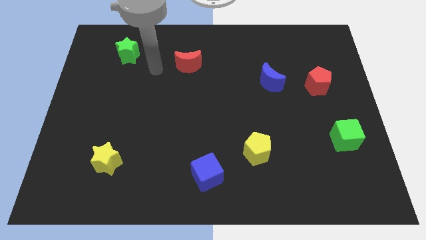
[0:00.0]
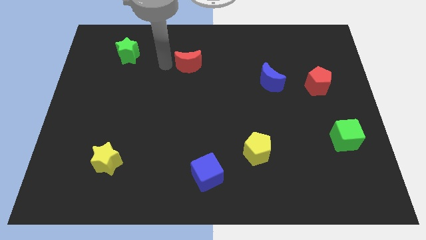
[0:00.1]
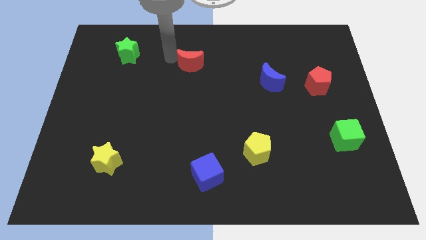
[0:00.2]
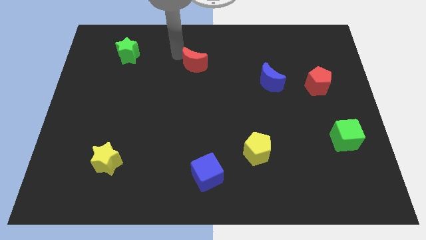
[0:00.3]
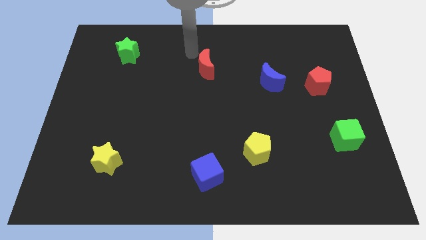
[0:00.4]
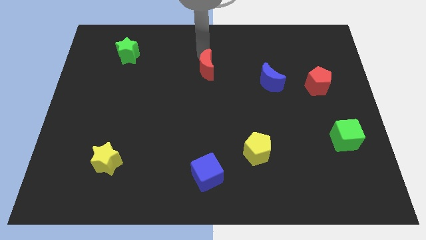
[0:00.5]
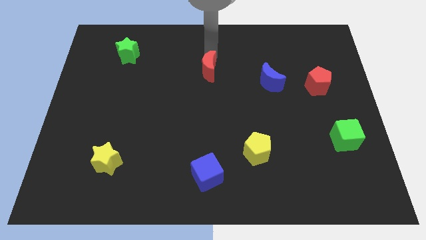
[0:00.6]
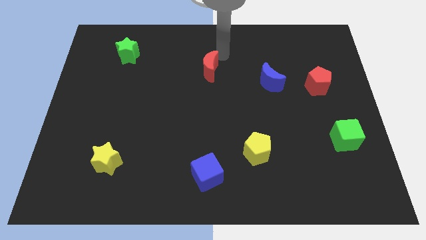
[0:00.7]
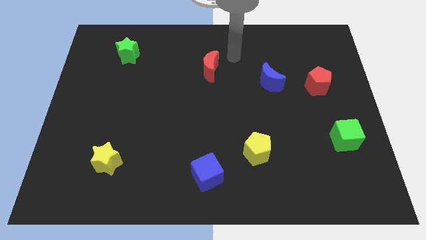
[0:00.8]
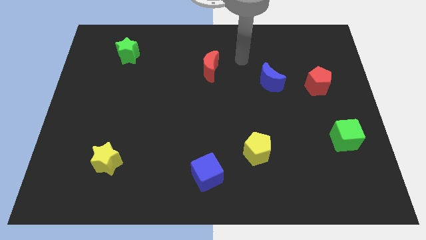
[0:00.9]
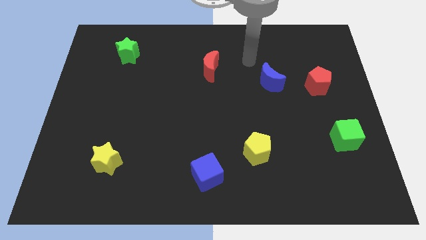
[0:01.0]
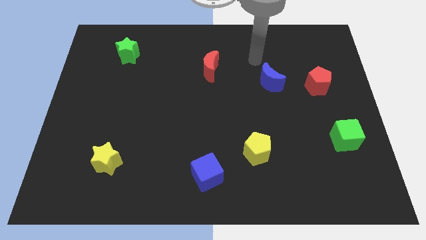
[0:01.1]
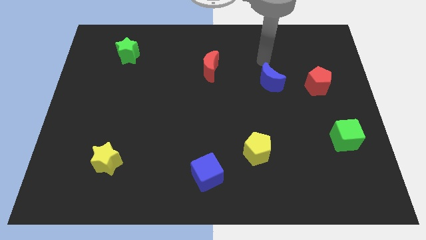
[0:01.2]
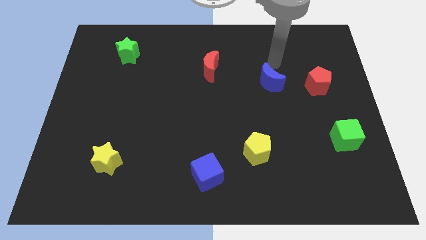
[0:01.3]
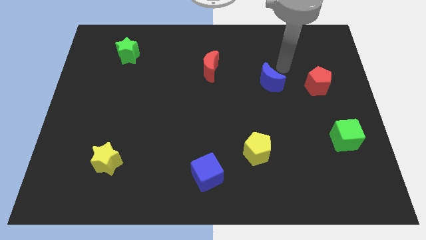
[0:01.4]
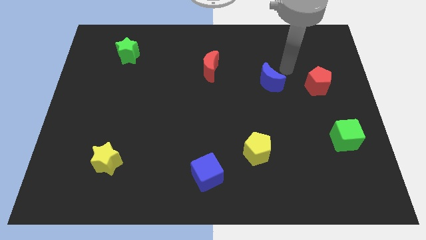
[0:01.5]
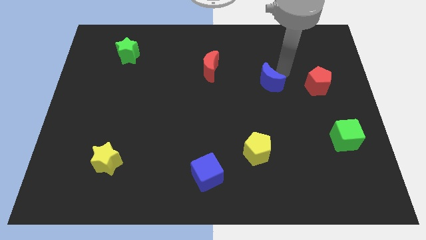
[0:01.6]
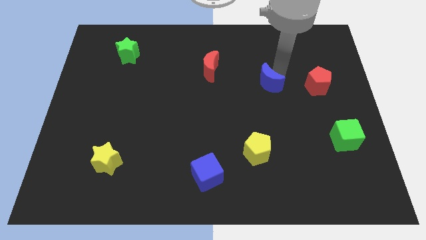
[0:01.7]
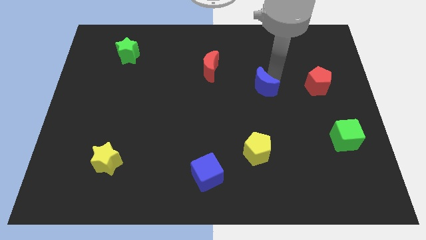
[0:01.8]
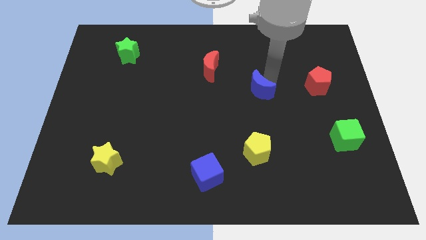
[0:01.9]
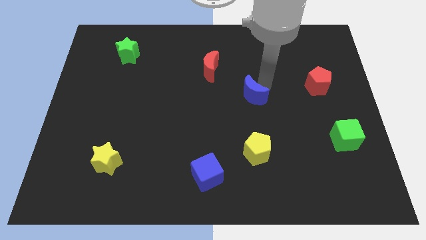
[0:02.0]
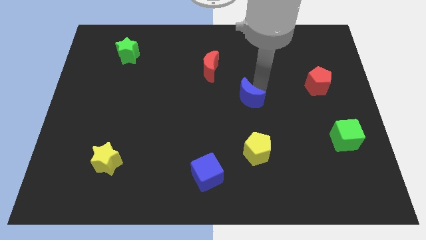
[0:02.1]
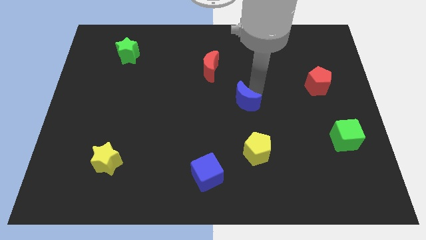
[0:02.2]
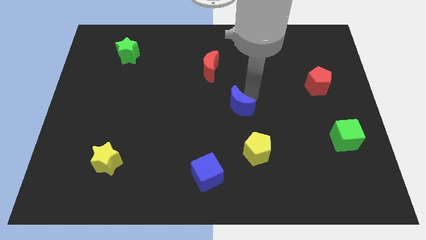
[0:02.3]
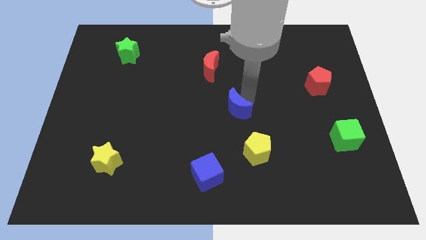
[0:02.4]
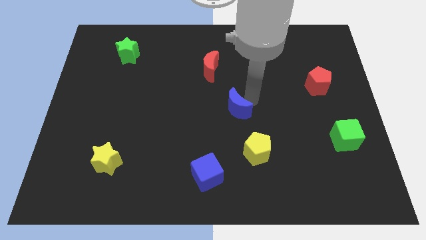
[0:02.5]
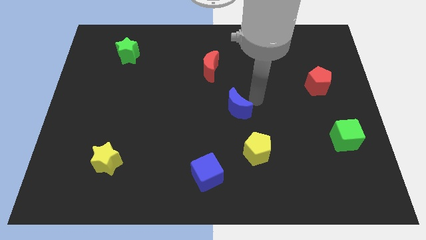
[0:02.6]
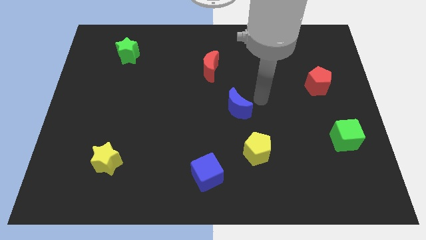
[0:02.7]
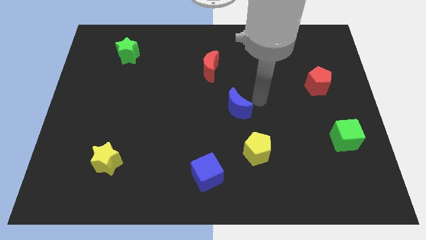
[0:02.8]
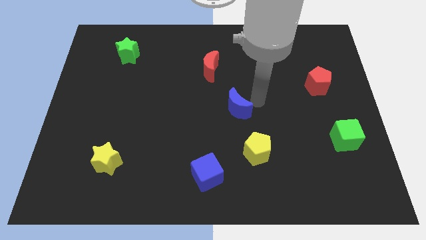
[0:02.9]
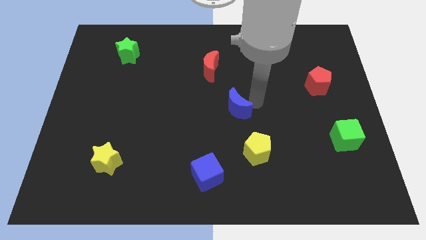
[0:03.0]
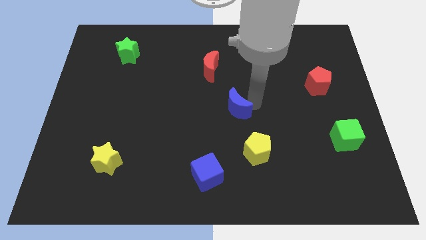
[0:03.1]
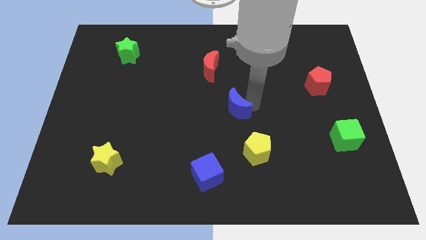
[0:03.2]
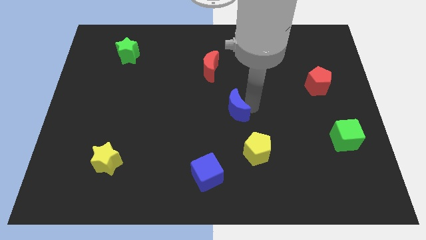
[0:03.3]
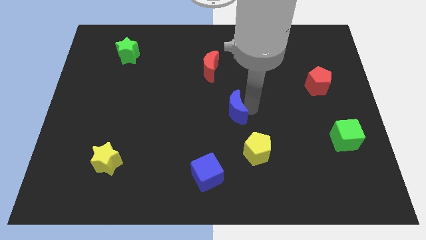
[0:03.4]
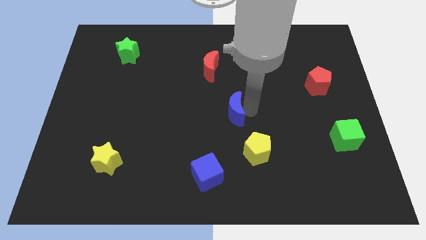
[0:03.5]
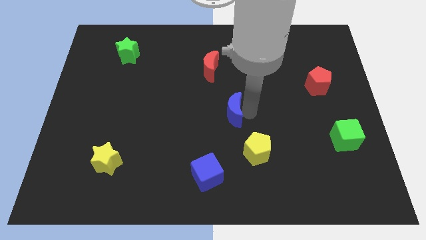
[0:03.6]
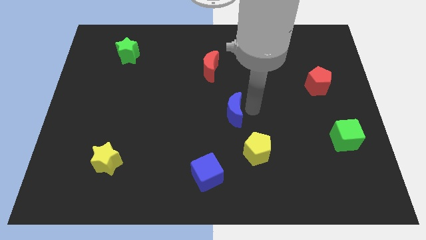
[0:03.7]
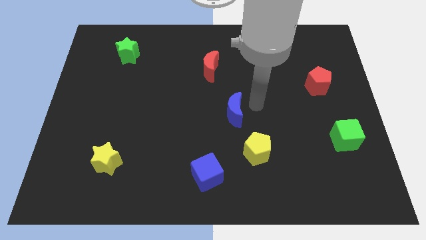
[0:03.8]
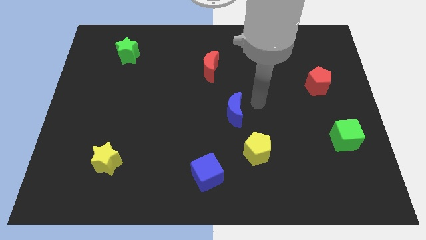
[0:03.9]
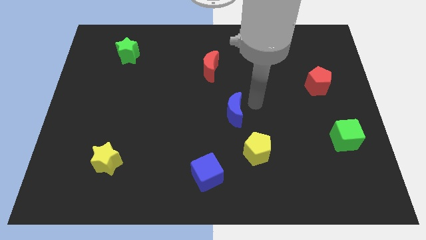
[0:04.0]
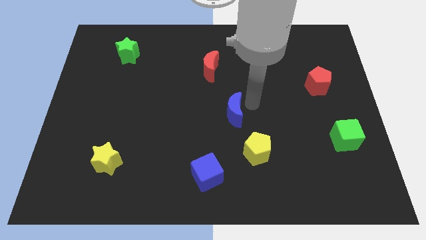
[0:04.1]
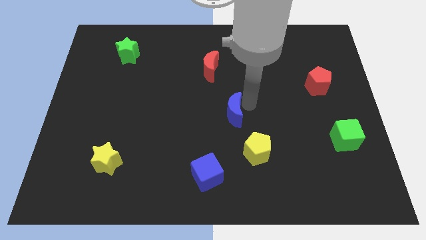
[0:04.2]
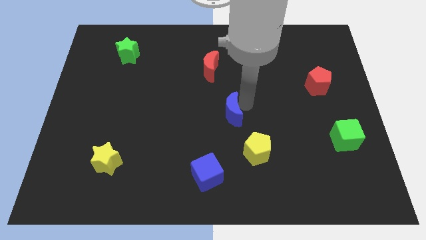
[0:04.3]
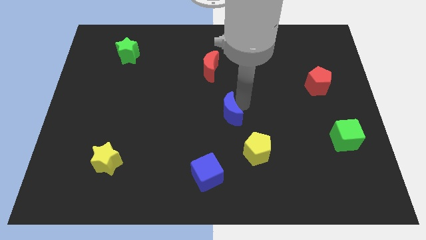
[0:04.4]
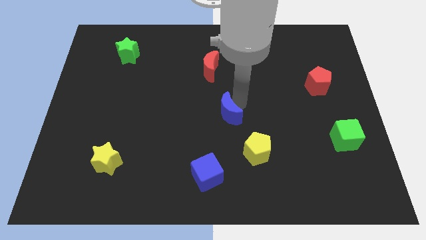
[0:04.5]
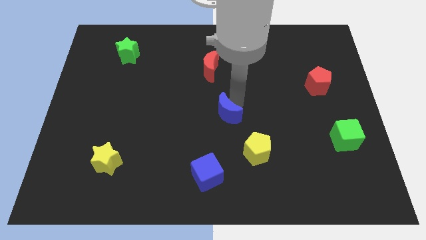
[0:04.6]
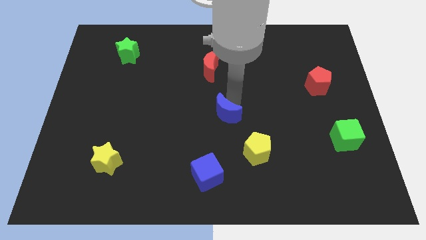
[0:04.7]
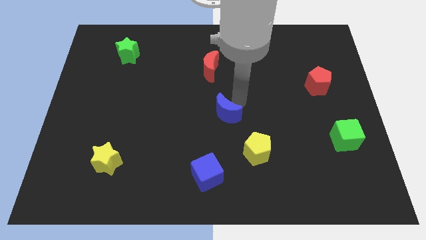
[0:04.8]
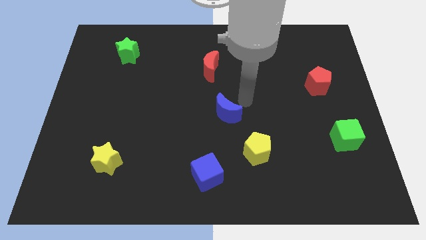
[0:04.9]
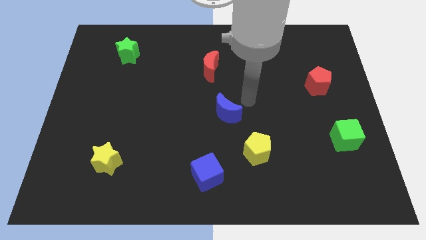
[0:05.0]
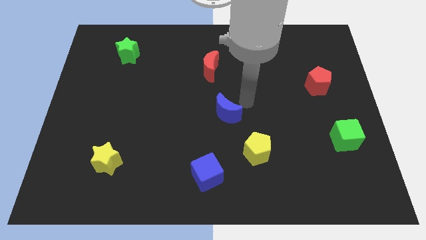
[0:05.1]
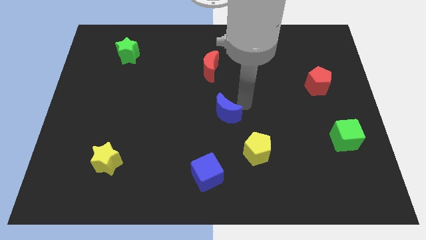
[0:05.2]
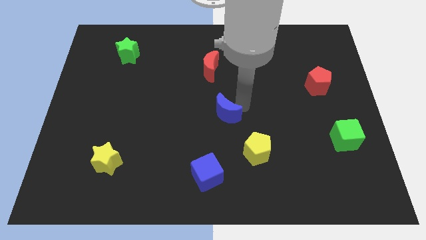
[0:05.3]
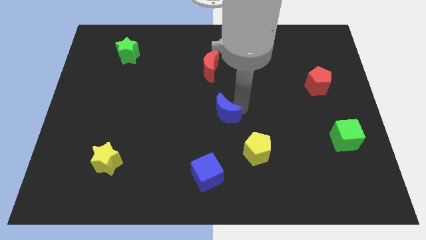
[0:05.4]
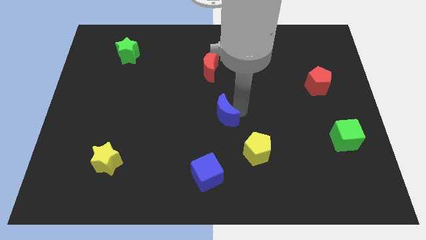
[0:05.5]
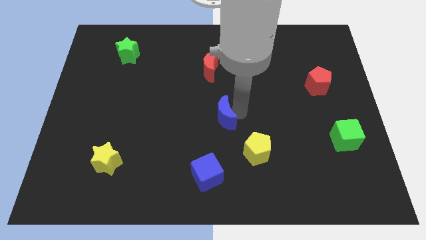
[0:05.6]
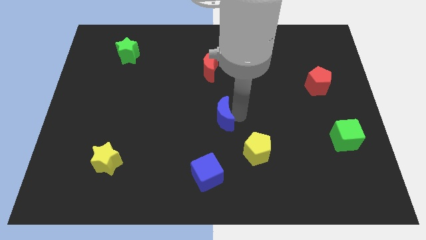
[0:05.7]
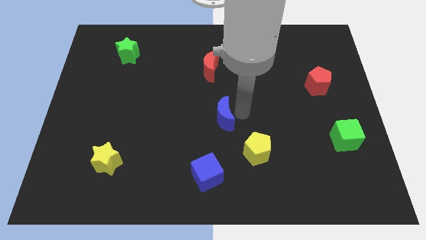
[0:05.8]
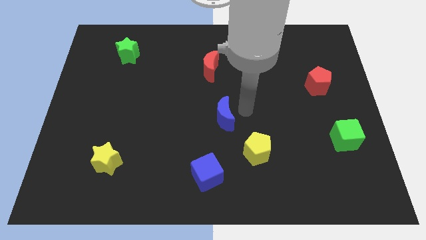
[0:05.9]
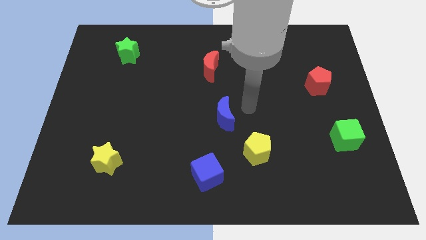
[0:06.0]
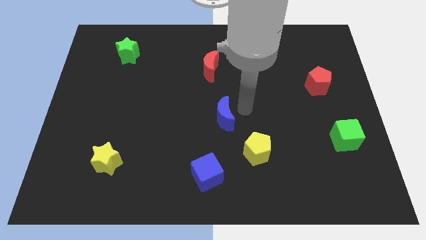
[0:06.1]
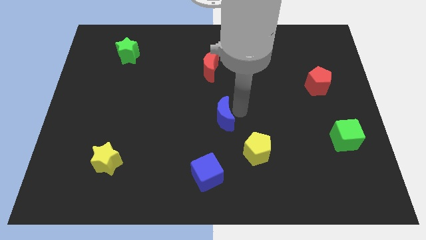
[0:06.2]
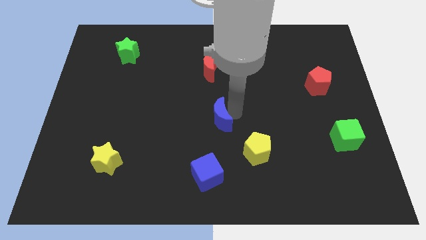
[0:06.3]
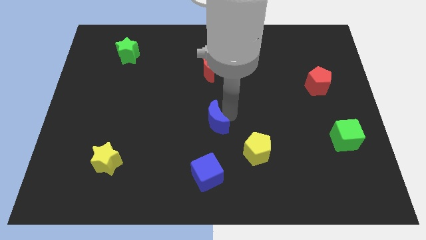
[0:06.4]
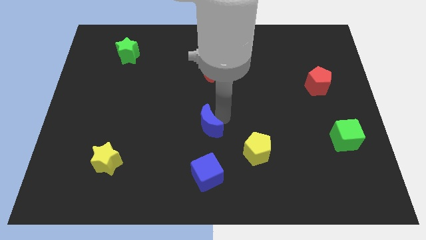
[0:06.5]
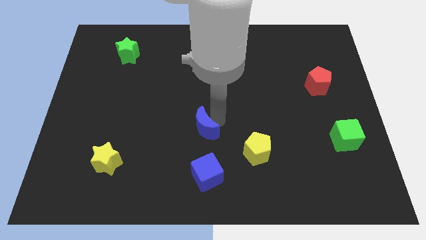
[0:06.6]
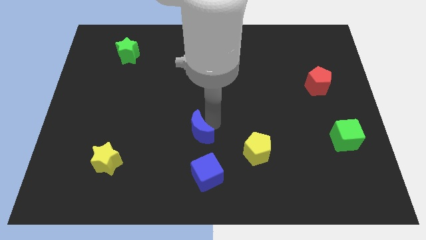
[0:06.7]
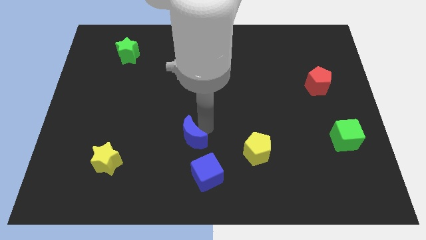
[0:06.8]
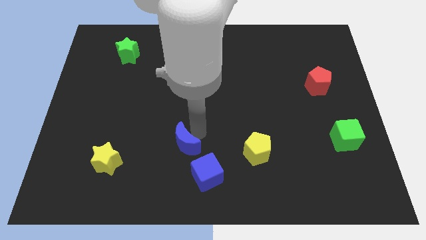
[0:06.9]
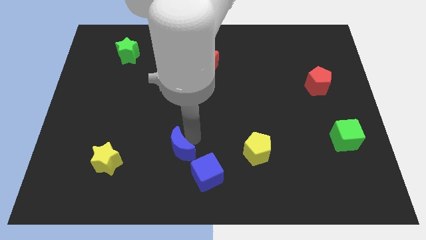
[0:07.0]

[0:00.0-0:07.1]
slide the blue moon right of the yellow star

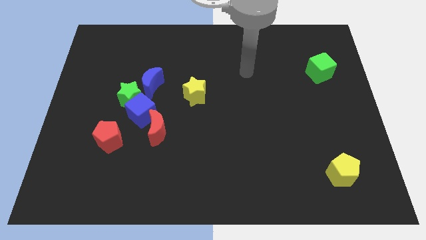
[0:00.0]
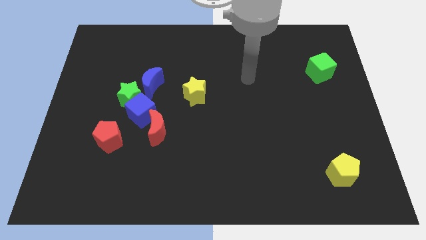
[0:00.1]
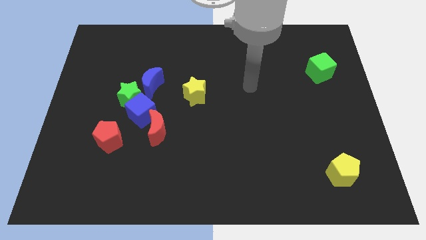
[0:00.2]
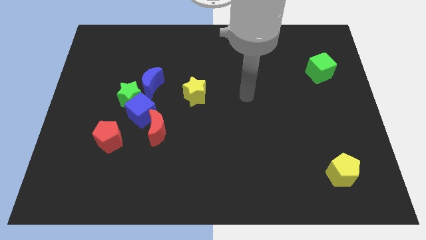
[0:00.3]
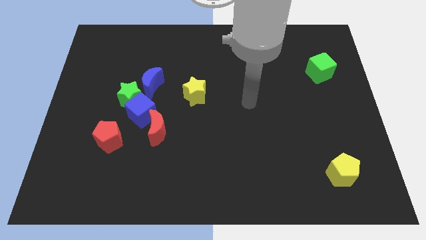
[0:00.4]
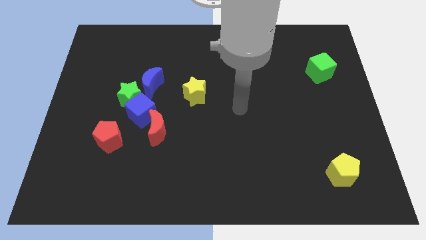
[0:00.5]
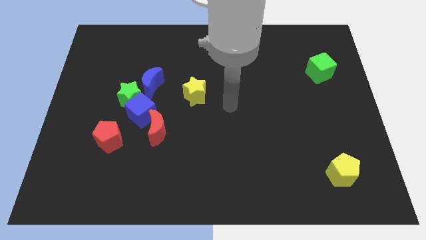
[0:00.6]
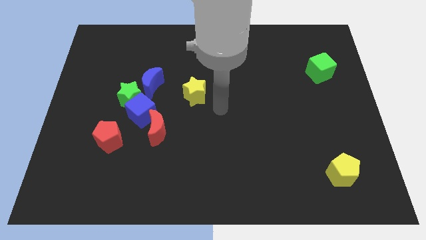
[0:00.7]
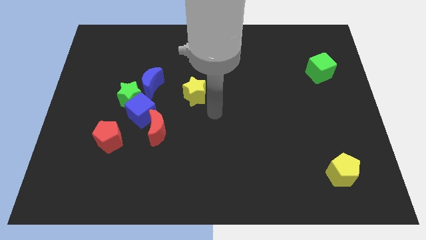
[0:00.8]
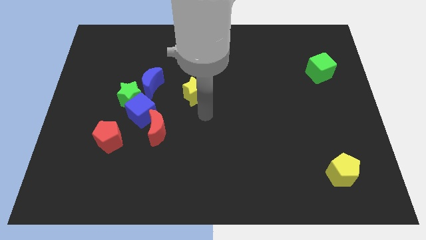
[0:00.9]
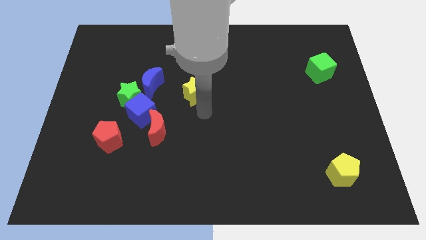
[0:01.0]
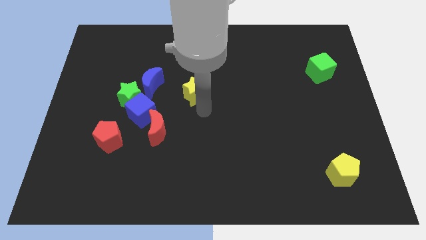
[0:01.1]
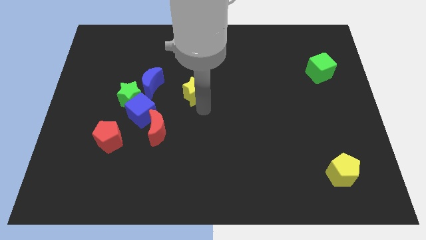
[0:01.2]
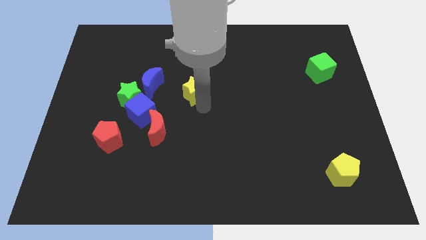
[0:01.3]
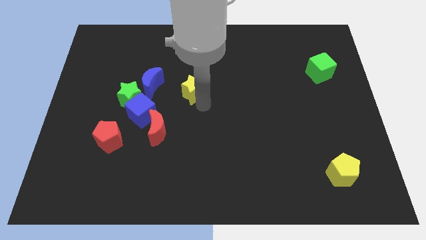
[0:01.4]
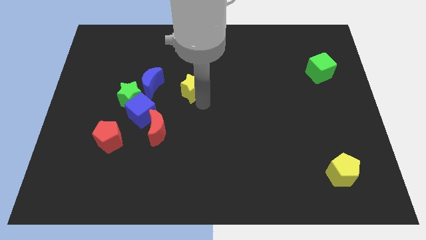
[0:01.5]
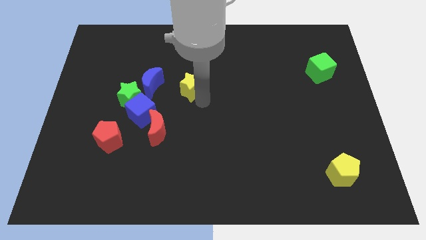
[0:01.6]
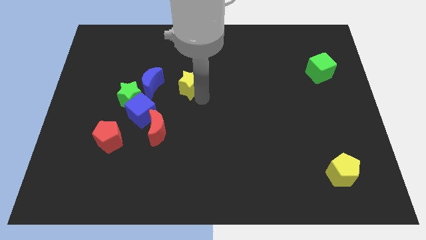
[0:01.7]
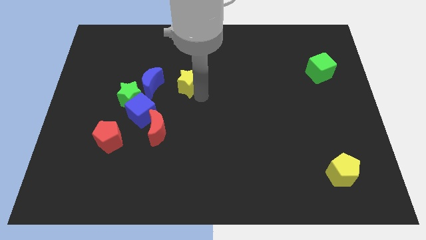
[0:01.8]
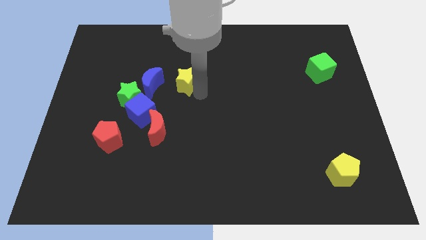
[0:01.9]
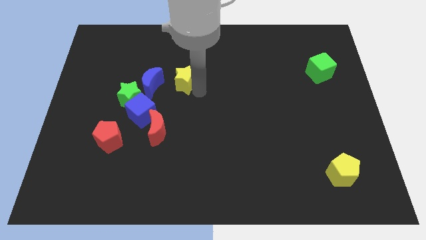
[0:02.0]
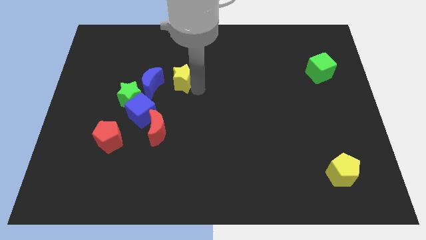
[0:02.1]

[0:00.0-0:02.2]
move the yellow star to the top right side of the blue moon
